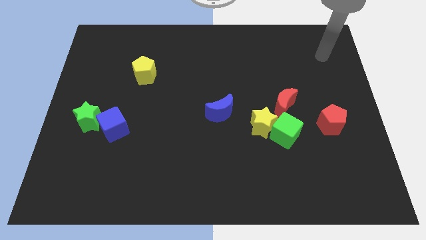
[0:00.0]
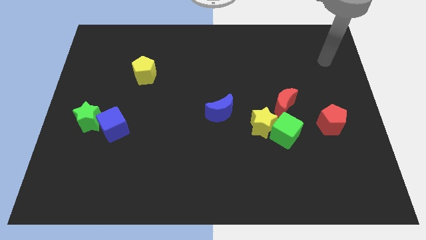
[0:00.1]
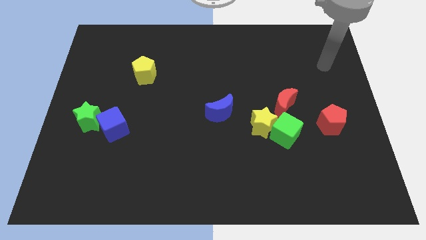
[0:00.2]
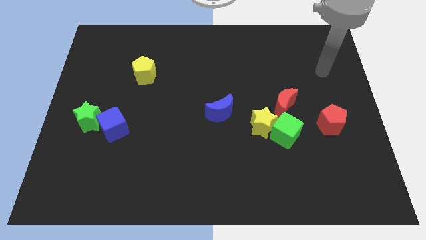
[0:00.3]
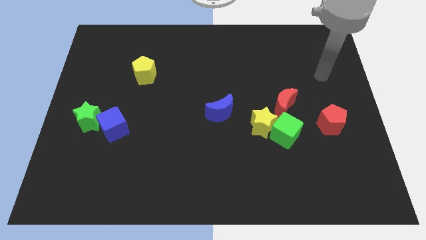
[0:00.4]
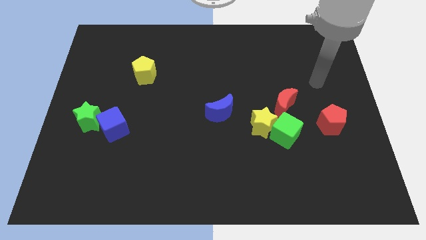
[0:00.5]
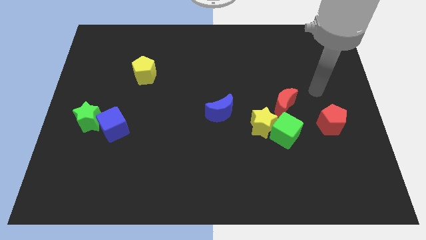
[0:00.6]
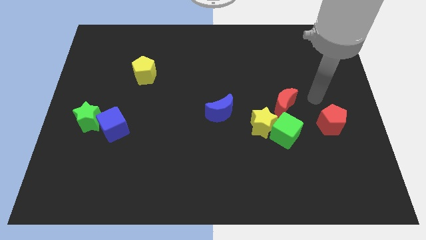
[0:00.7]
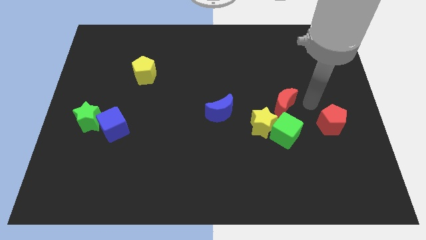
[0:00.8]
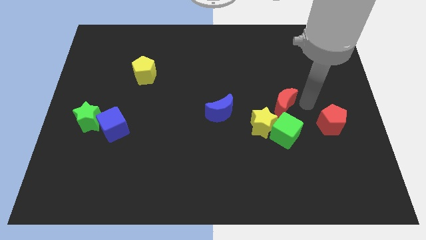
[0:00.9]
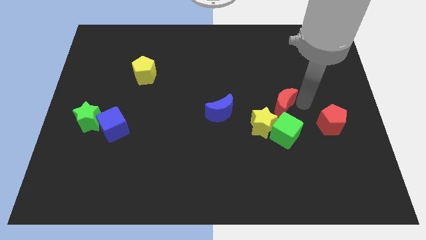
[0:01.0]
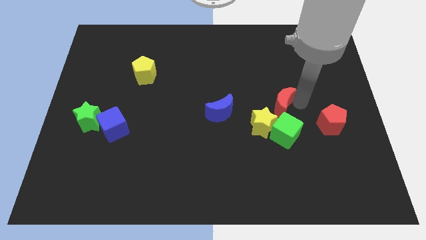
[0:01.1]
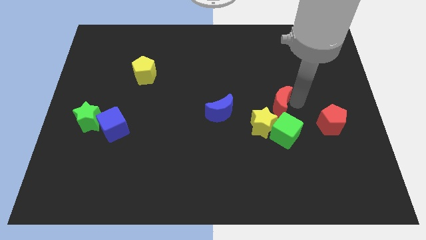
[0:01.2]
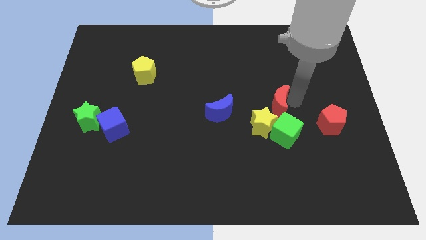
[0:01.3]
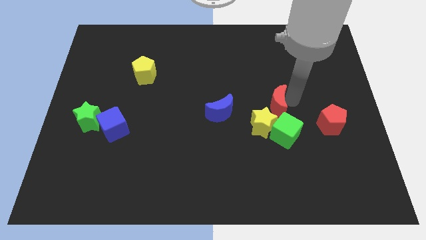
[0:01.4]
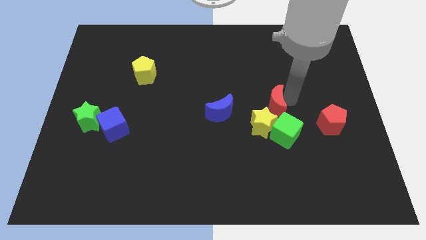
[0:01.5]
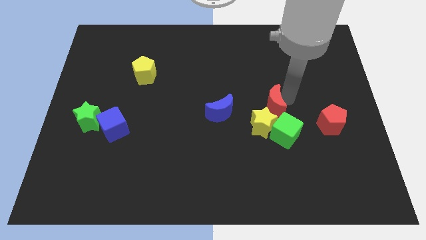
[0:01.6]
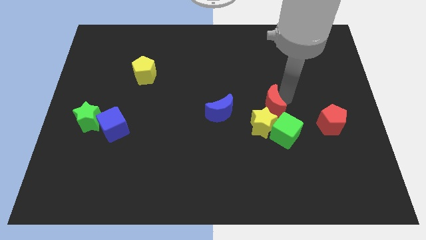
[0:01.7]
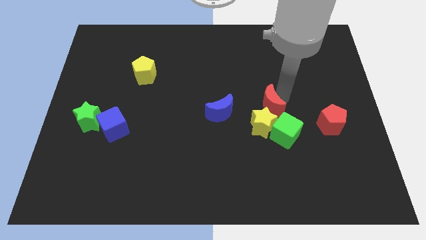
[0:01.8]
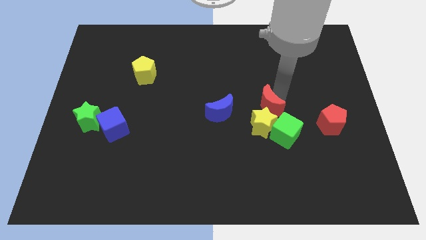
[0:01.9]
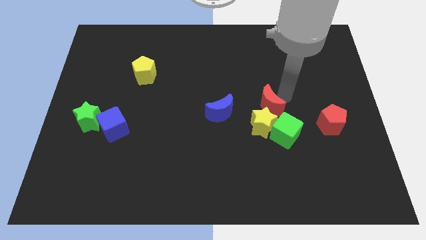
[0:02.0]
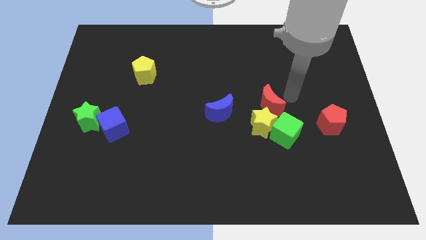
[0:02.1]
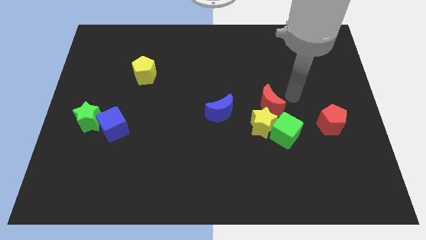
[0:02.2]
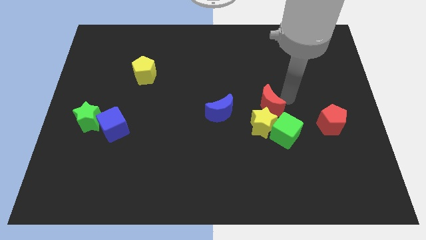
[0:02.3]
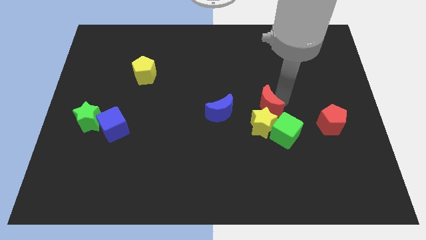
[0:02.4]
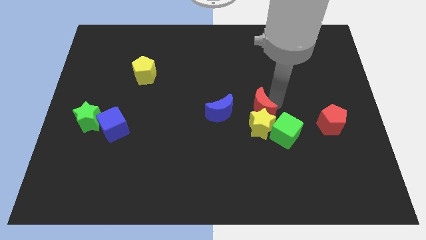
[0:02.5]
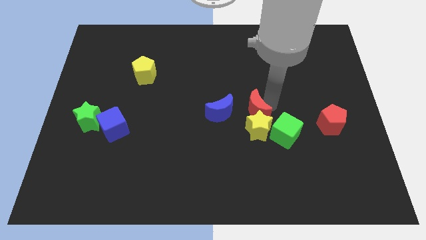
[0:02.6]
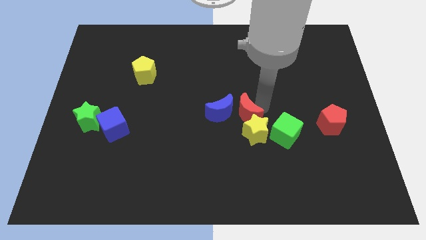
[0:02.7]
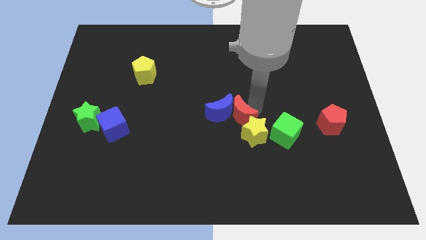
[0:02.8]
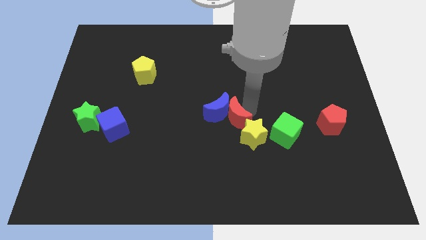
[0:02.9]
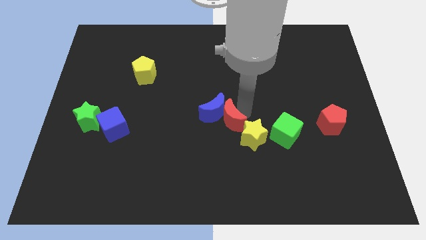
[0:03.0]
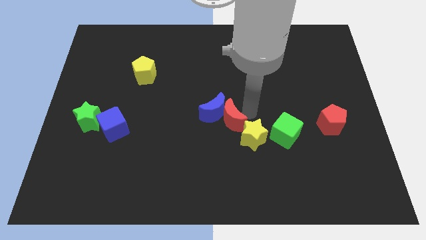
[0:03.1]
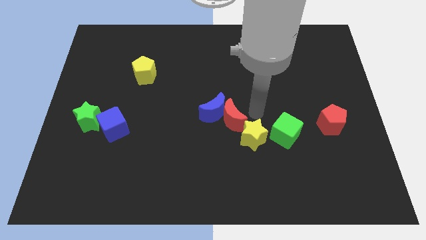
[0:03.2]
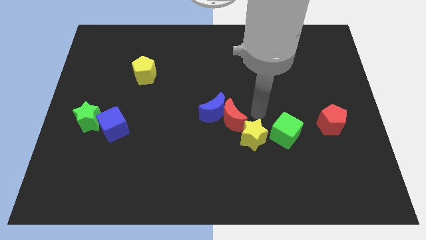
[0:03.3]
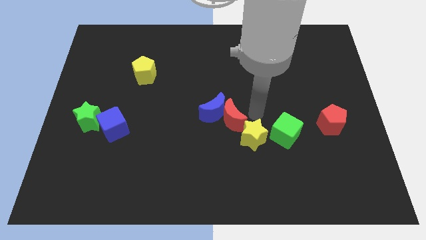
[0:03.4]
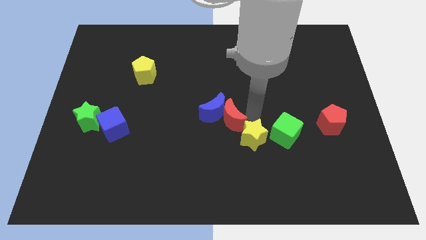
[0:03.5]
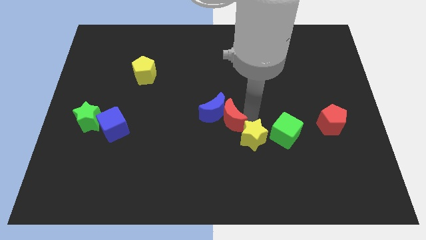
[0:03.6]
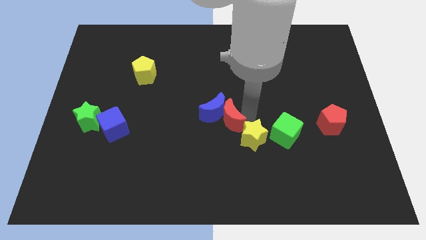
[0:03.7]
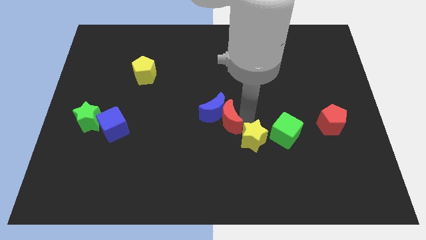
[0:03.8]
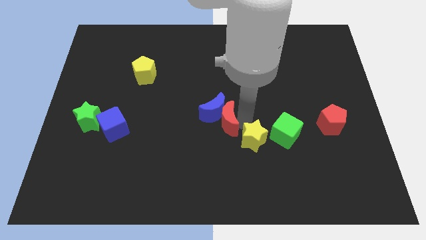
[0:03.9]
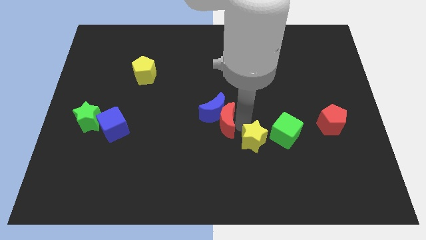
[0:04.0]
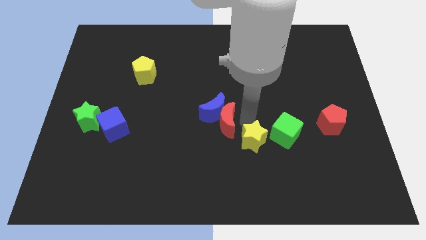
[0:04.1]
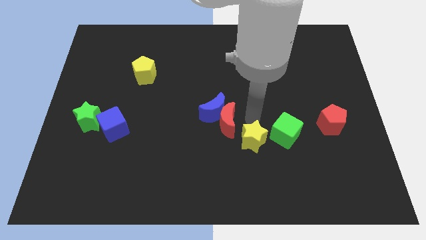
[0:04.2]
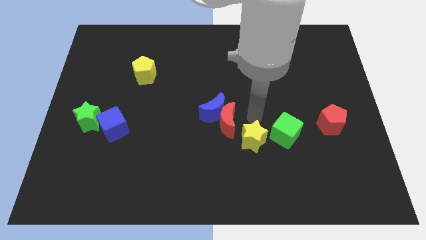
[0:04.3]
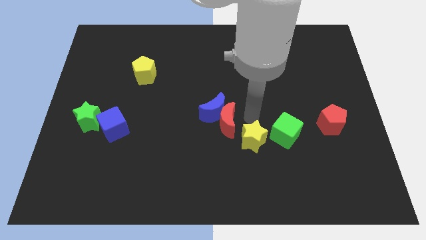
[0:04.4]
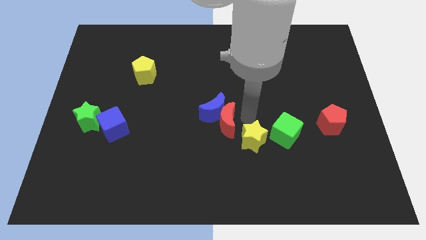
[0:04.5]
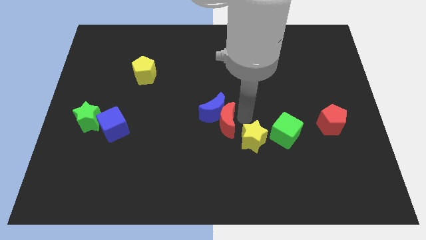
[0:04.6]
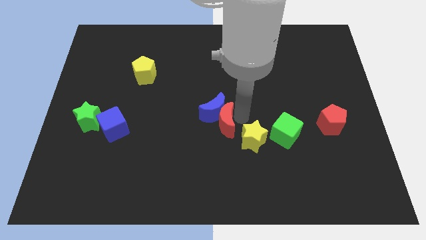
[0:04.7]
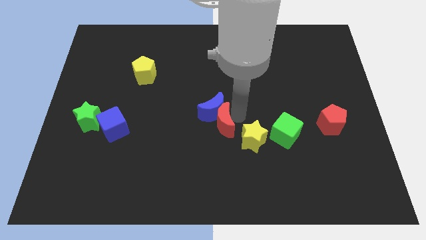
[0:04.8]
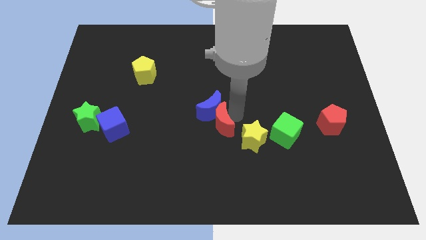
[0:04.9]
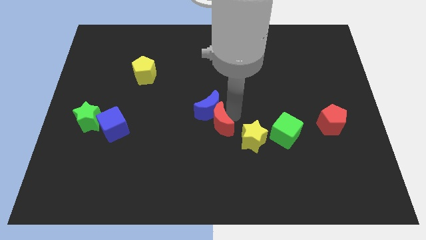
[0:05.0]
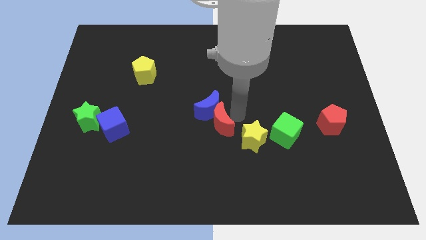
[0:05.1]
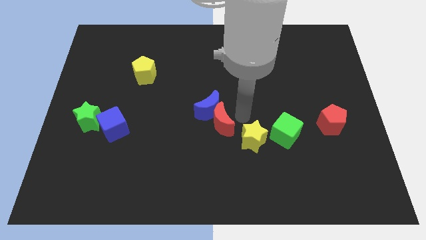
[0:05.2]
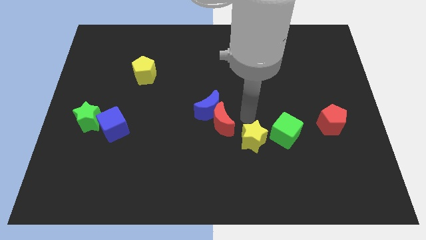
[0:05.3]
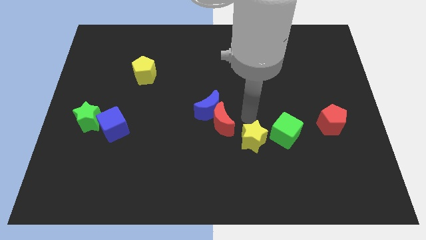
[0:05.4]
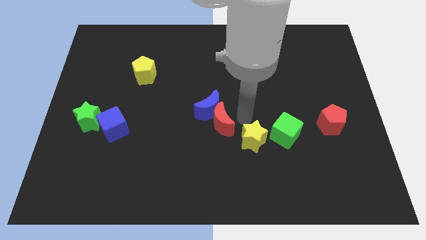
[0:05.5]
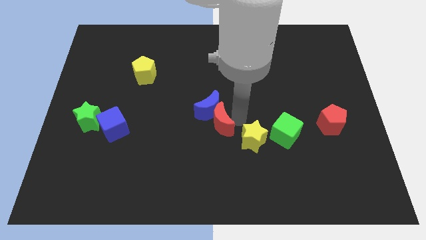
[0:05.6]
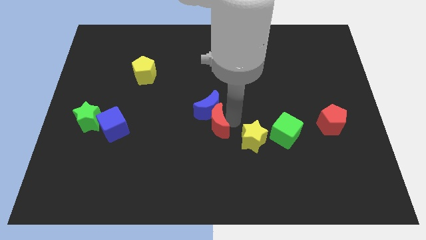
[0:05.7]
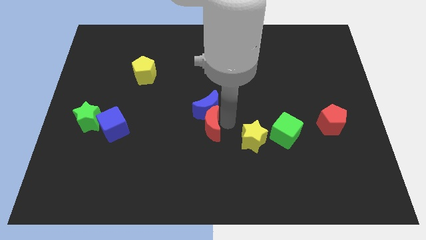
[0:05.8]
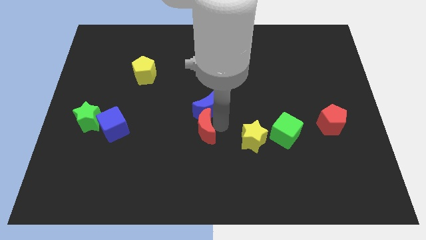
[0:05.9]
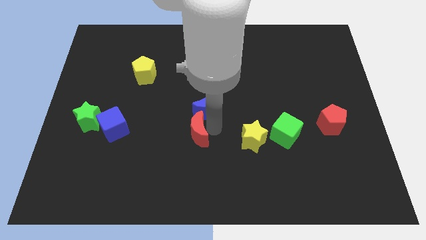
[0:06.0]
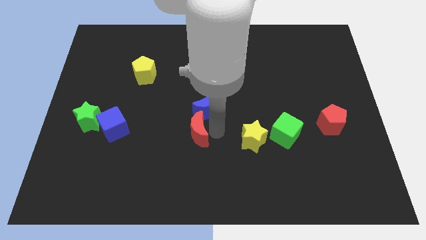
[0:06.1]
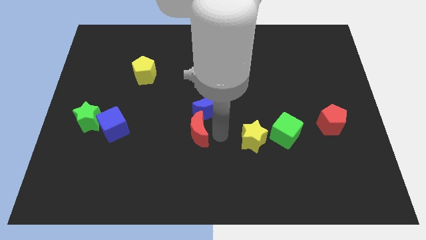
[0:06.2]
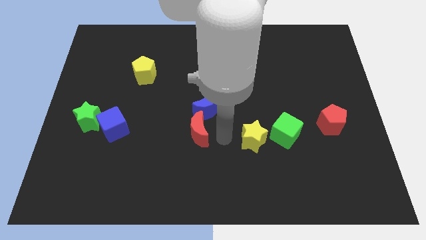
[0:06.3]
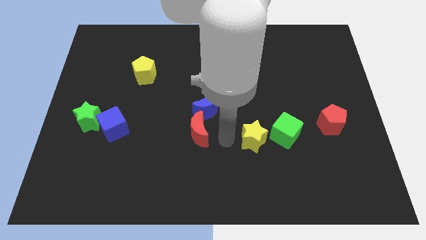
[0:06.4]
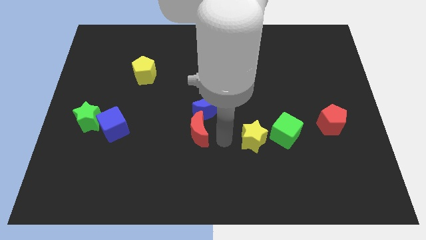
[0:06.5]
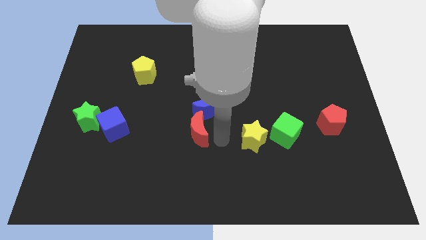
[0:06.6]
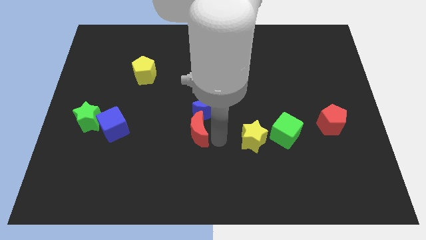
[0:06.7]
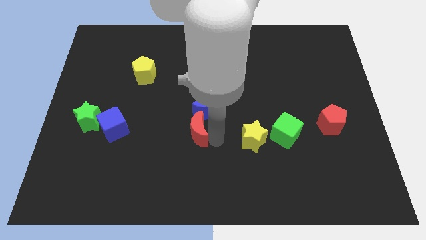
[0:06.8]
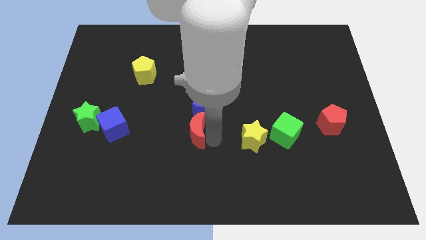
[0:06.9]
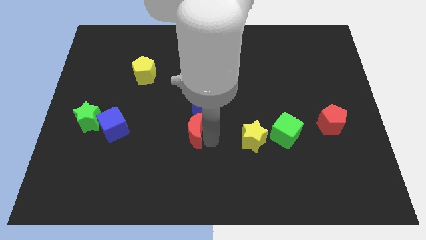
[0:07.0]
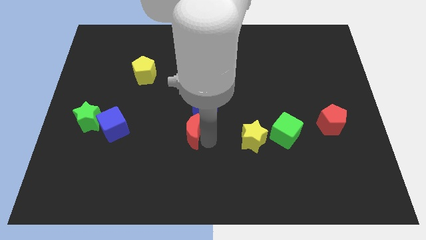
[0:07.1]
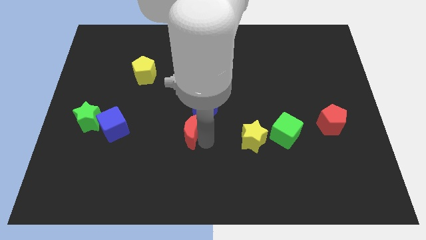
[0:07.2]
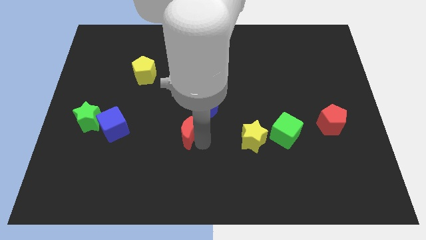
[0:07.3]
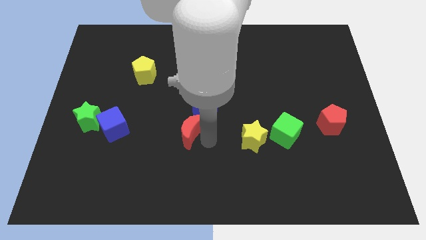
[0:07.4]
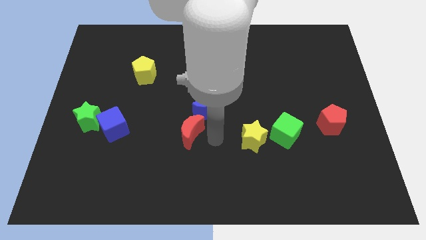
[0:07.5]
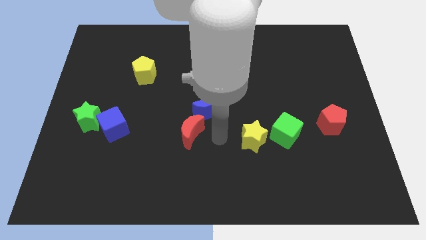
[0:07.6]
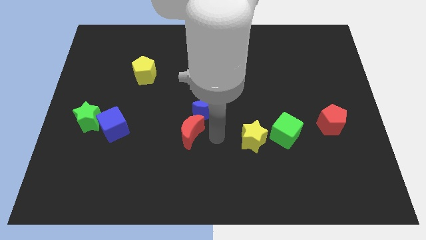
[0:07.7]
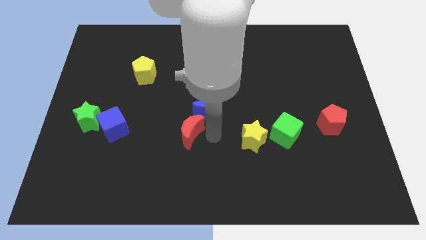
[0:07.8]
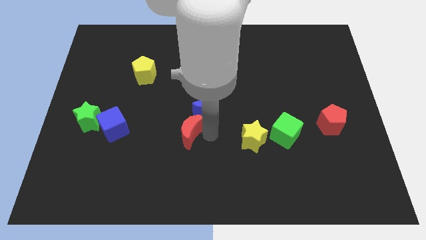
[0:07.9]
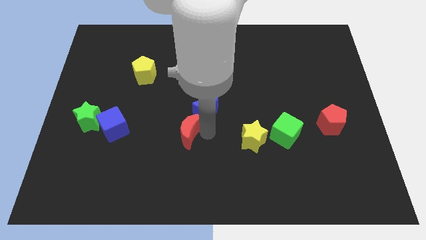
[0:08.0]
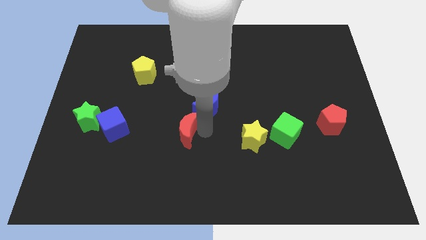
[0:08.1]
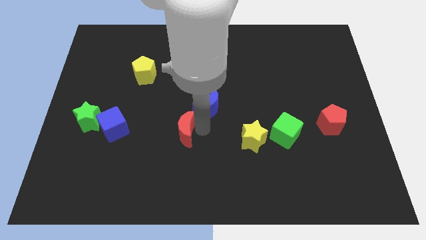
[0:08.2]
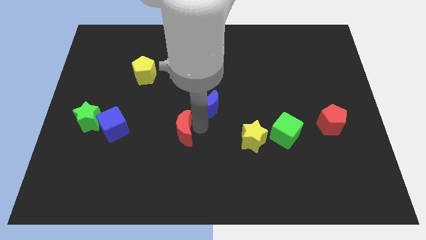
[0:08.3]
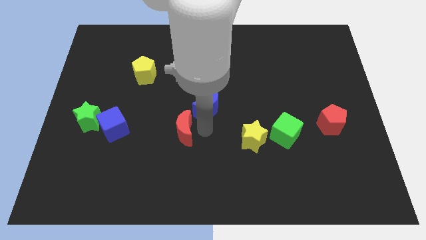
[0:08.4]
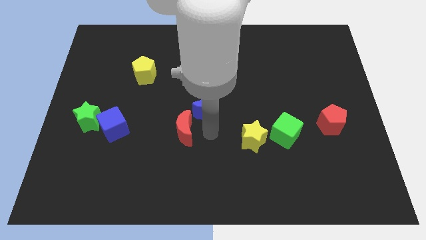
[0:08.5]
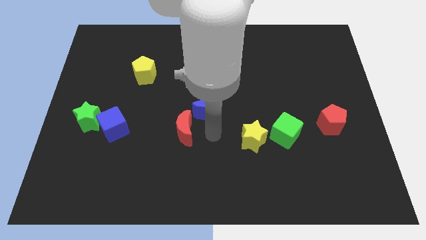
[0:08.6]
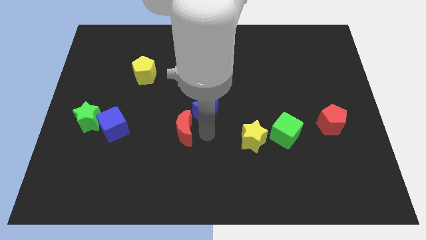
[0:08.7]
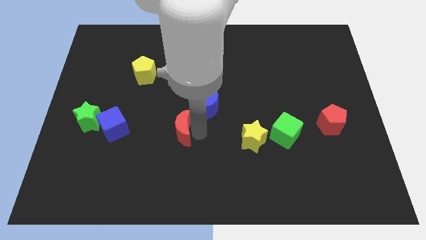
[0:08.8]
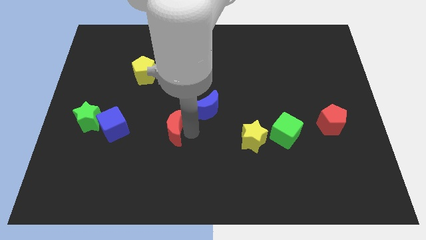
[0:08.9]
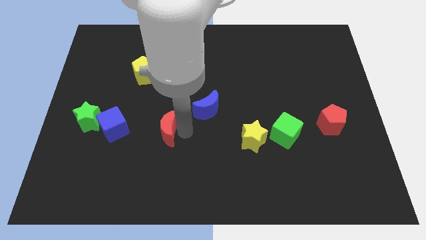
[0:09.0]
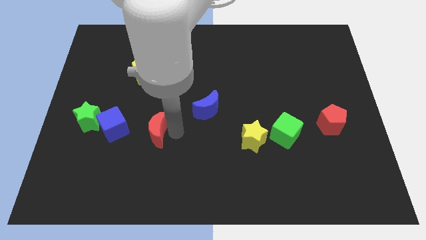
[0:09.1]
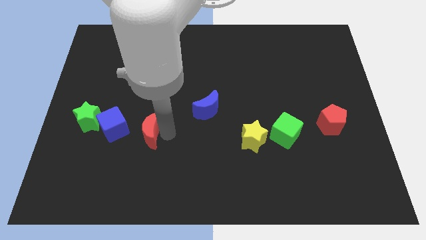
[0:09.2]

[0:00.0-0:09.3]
push the red moon just right of the green star
